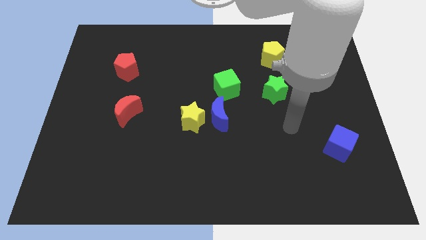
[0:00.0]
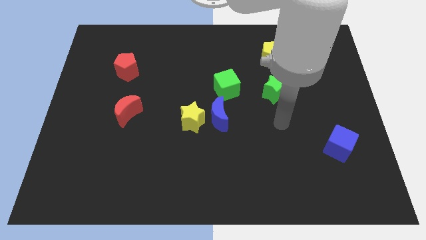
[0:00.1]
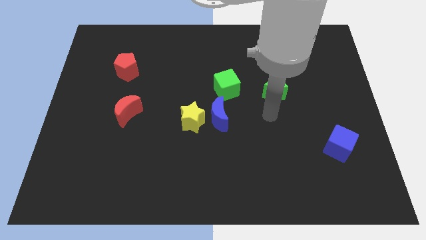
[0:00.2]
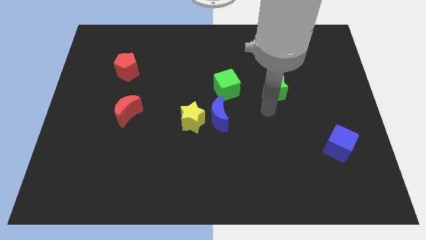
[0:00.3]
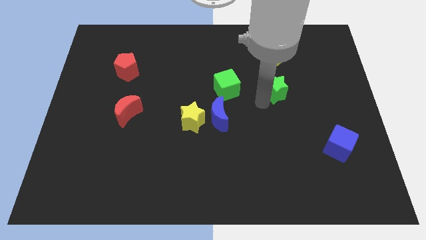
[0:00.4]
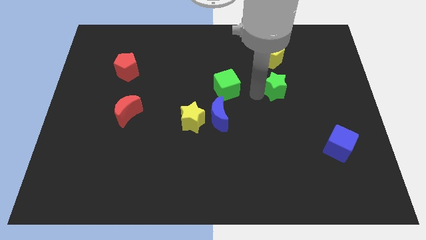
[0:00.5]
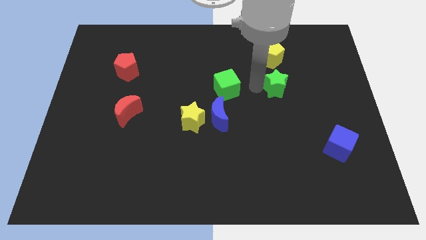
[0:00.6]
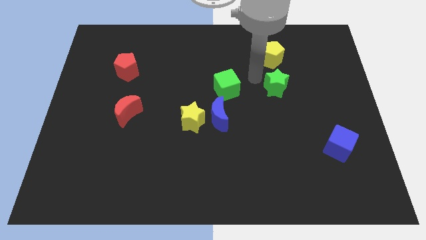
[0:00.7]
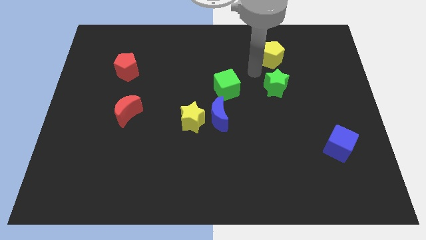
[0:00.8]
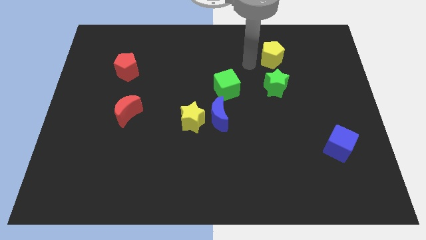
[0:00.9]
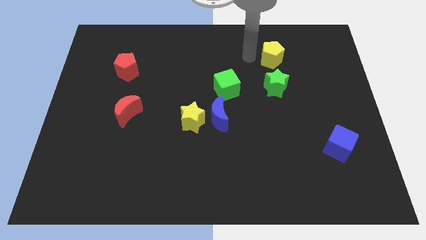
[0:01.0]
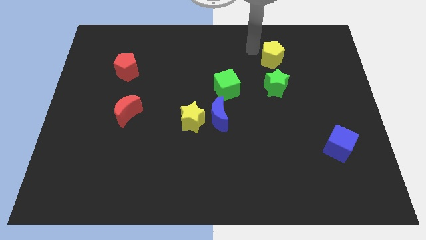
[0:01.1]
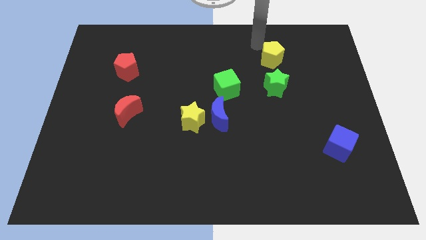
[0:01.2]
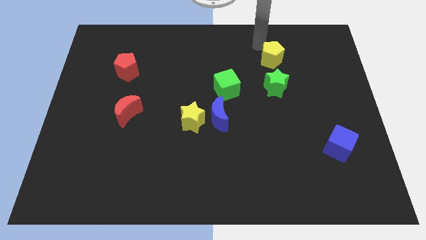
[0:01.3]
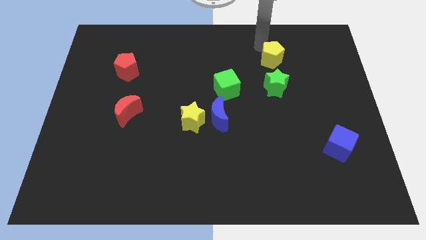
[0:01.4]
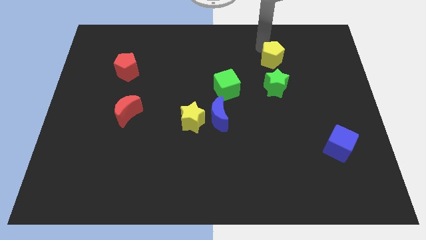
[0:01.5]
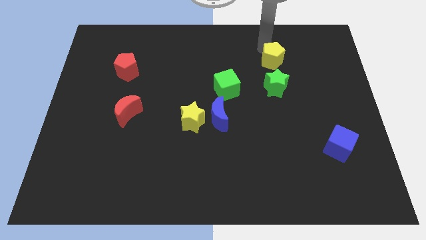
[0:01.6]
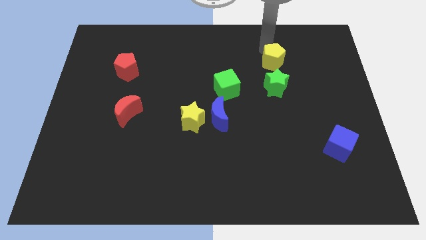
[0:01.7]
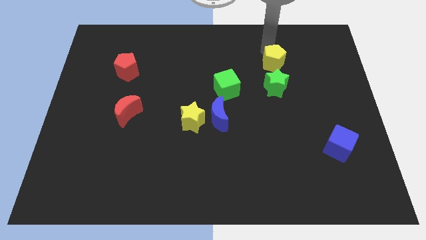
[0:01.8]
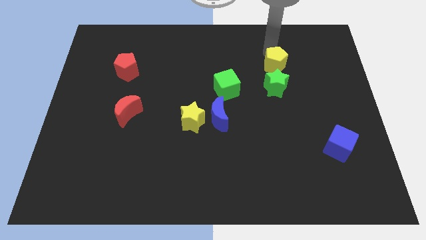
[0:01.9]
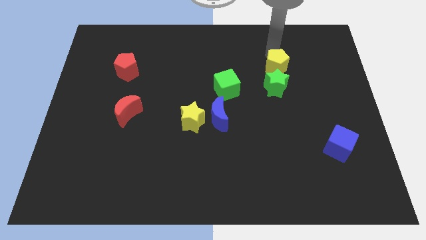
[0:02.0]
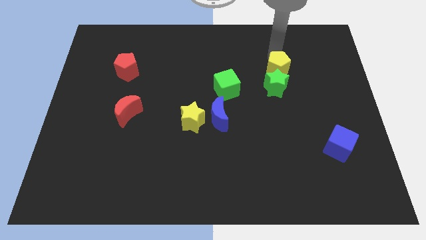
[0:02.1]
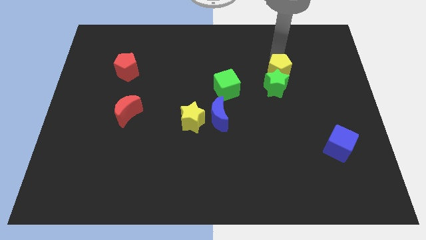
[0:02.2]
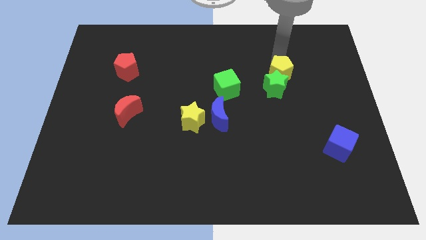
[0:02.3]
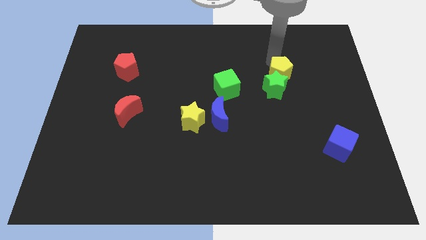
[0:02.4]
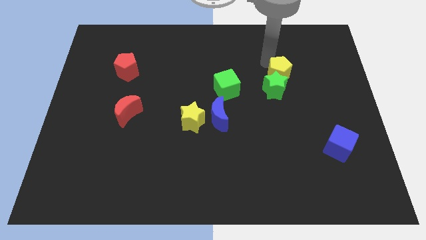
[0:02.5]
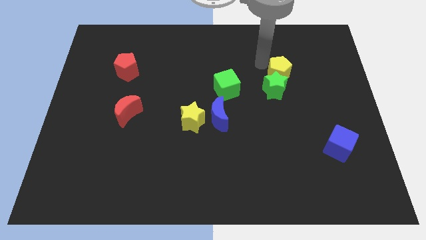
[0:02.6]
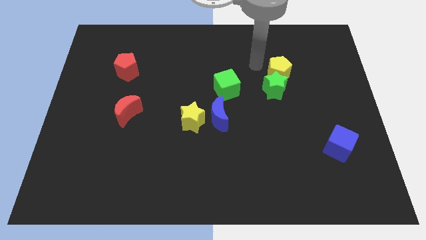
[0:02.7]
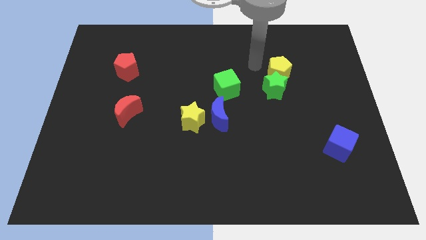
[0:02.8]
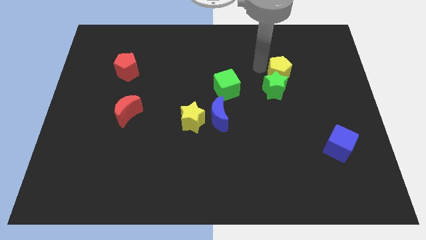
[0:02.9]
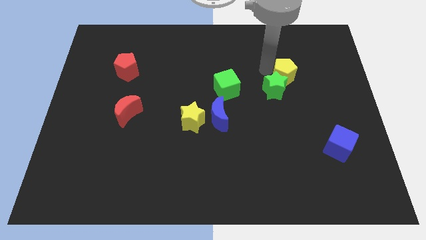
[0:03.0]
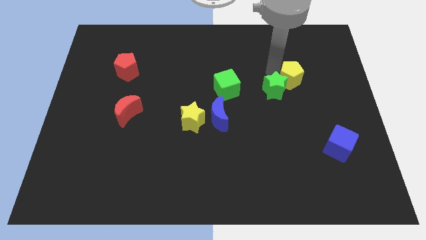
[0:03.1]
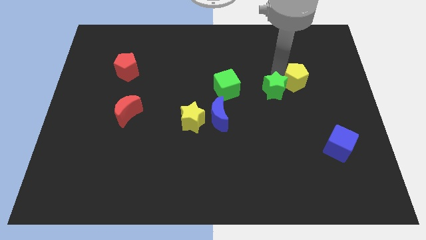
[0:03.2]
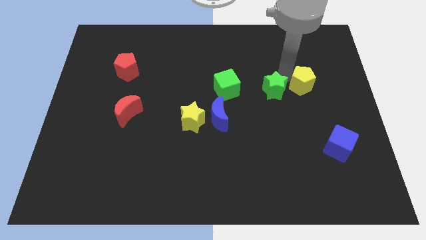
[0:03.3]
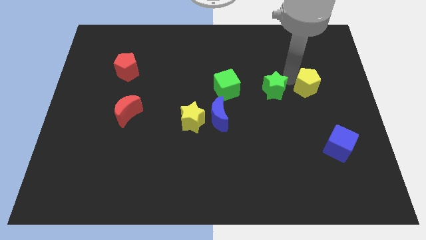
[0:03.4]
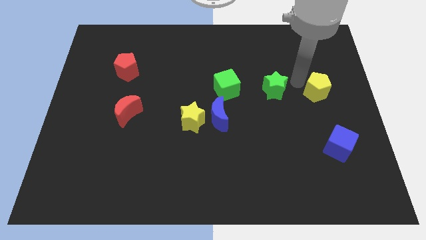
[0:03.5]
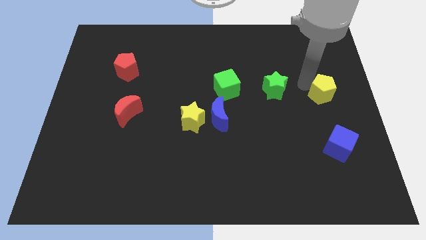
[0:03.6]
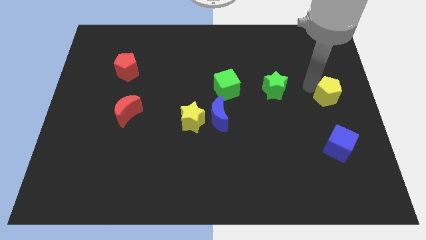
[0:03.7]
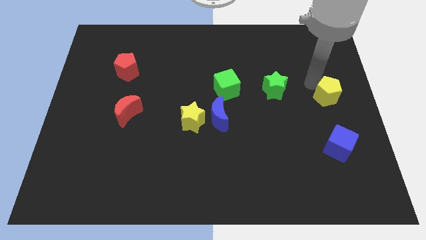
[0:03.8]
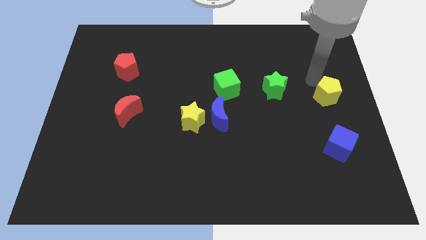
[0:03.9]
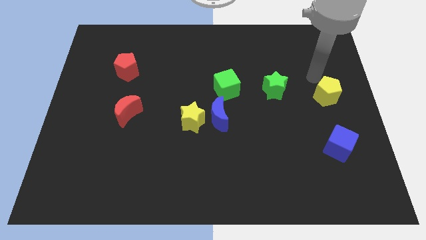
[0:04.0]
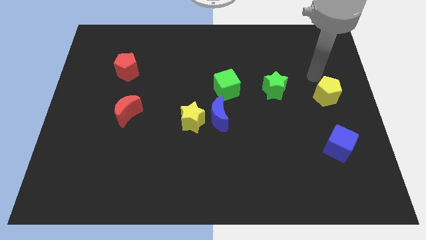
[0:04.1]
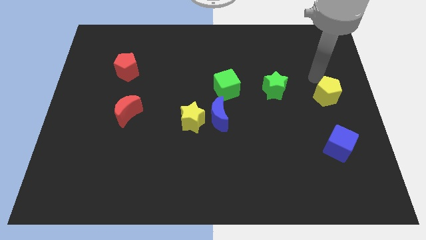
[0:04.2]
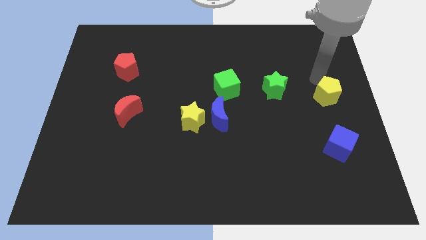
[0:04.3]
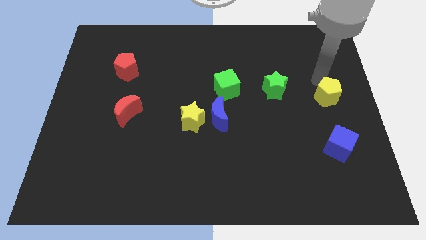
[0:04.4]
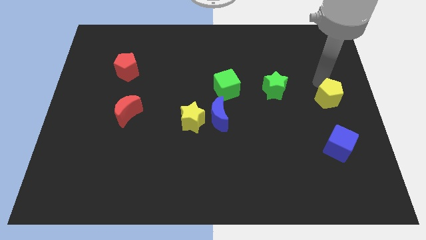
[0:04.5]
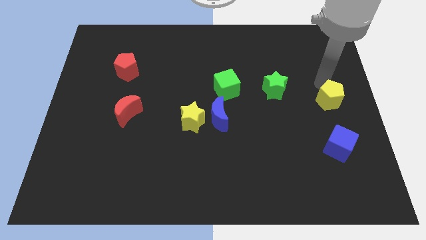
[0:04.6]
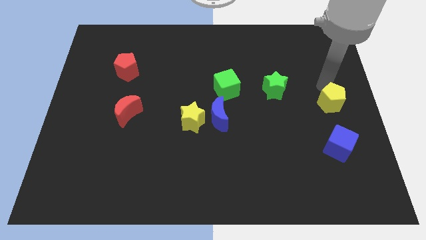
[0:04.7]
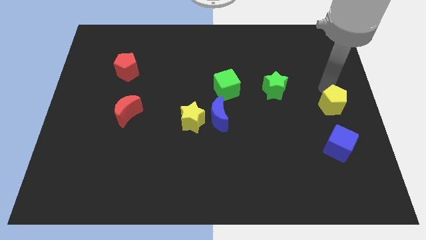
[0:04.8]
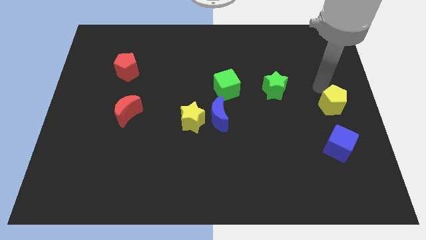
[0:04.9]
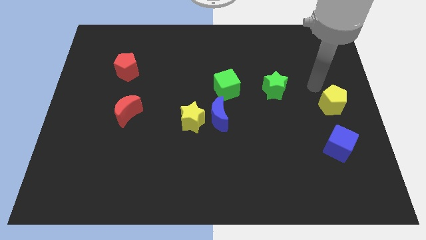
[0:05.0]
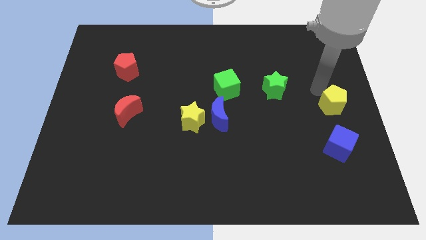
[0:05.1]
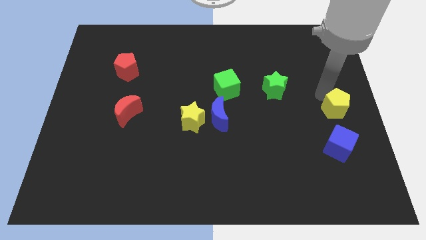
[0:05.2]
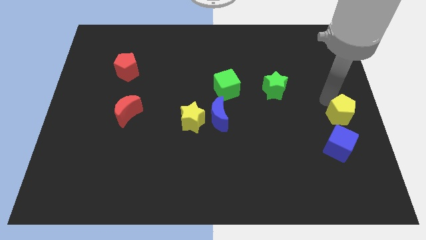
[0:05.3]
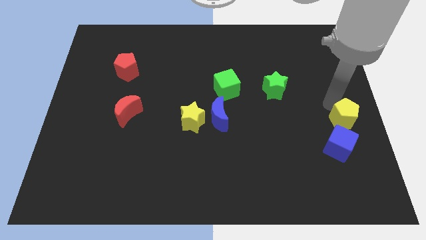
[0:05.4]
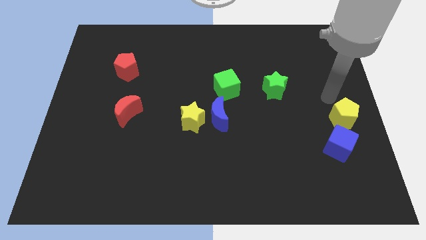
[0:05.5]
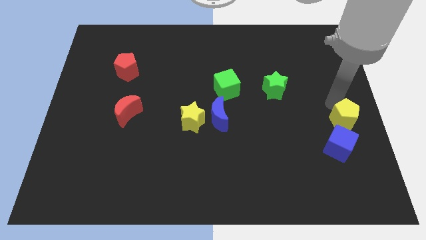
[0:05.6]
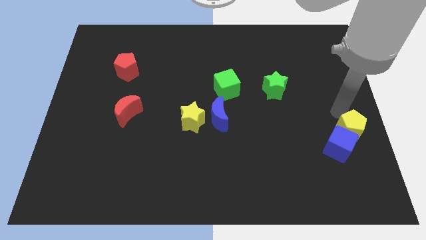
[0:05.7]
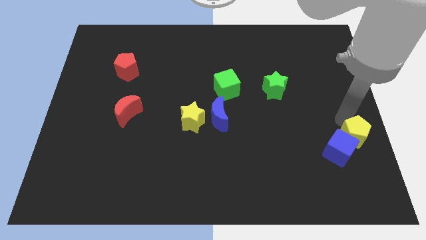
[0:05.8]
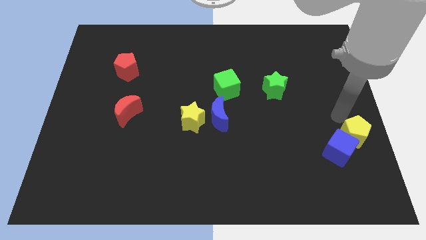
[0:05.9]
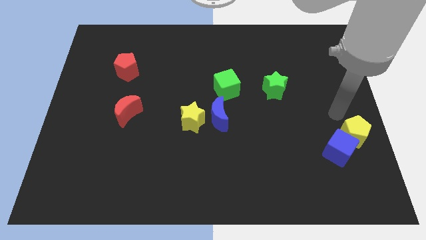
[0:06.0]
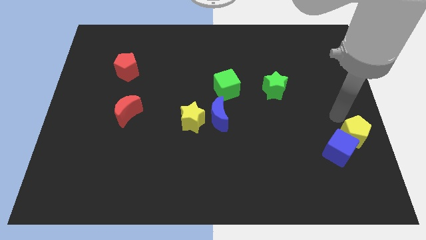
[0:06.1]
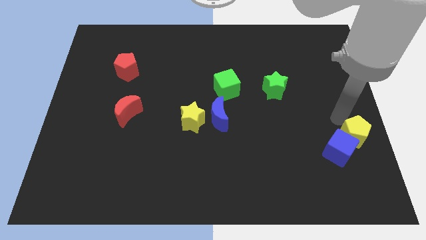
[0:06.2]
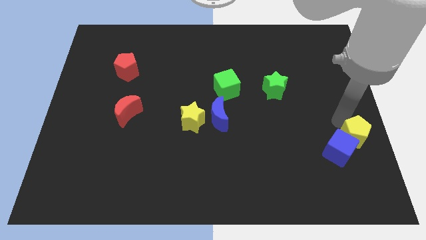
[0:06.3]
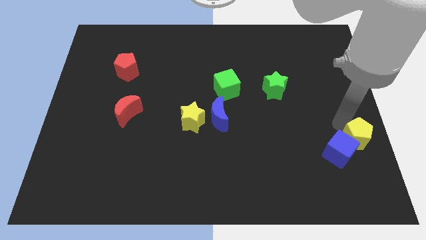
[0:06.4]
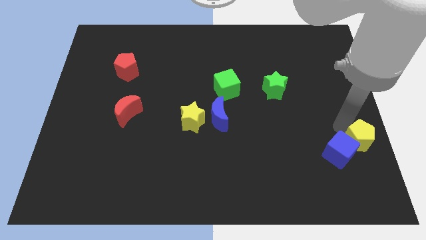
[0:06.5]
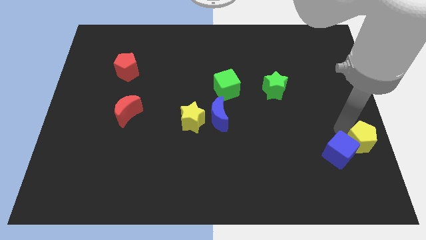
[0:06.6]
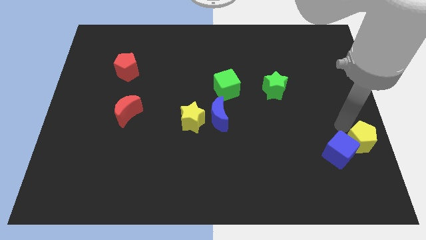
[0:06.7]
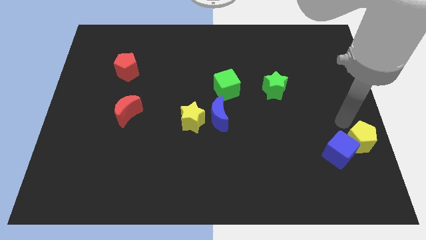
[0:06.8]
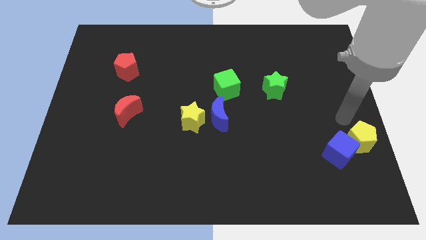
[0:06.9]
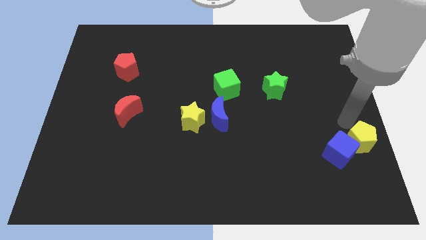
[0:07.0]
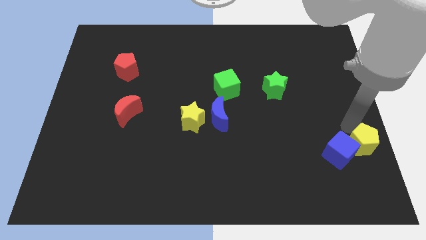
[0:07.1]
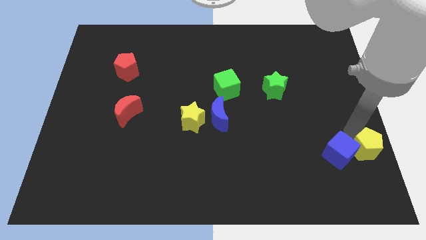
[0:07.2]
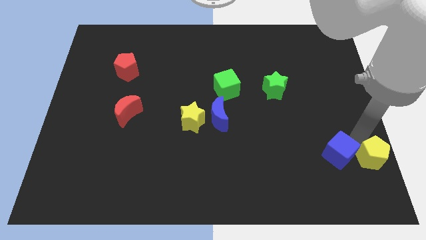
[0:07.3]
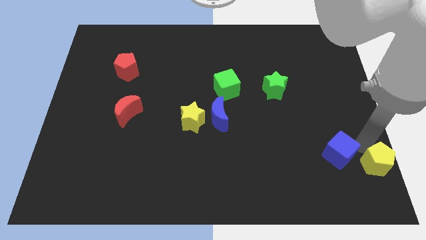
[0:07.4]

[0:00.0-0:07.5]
slide the yellow pentagon to the lower right corner
